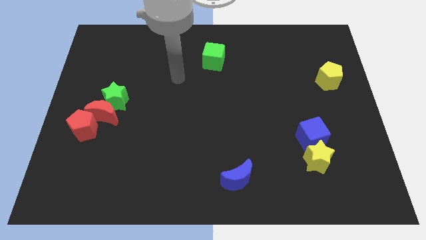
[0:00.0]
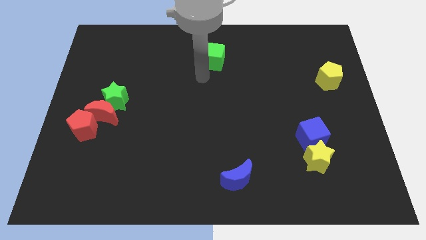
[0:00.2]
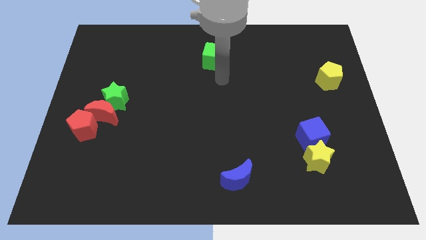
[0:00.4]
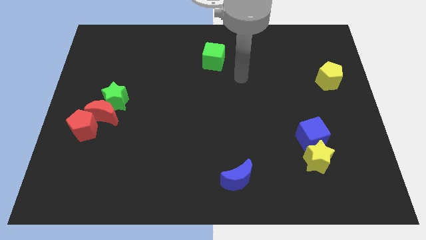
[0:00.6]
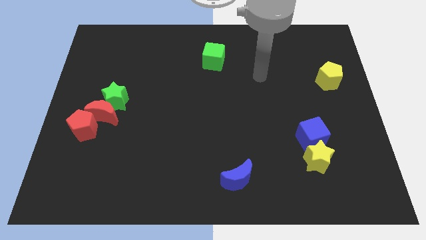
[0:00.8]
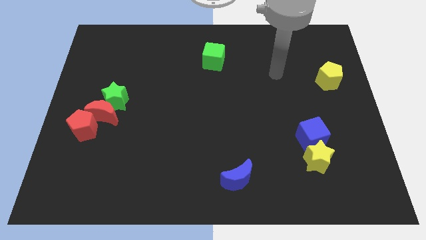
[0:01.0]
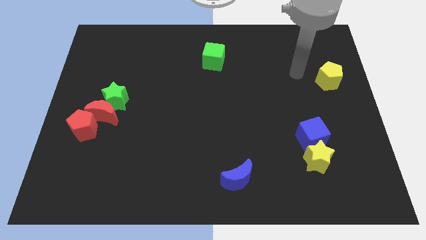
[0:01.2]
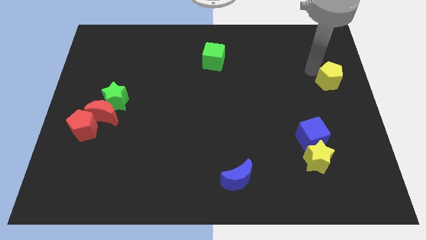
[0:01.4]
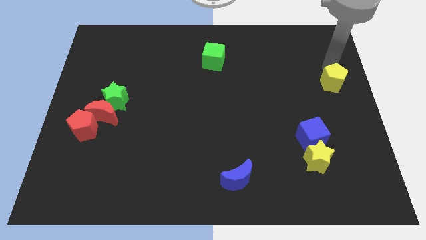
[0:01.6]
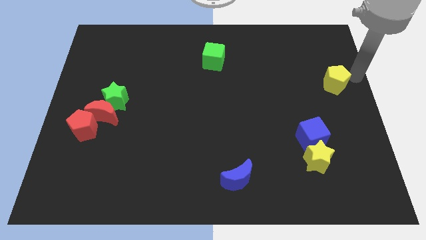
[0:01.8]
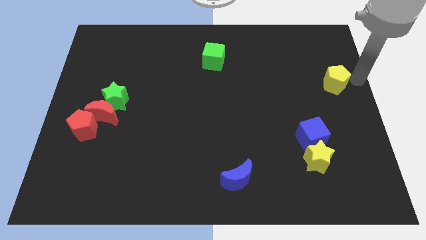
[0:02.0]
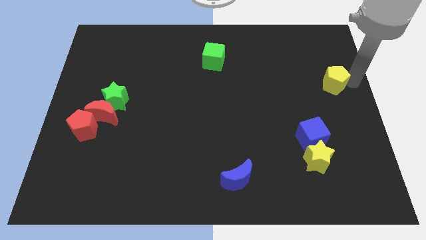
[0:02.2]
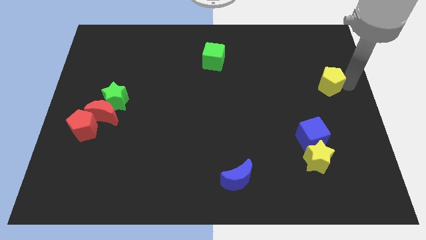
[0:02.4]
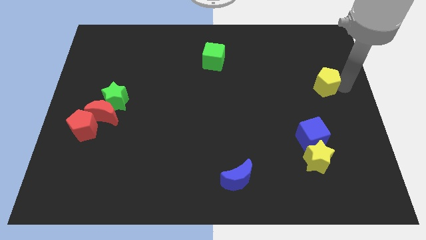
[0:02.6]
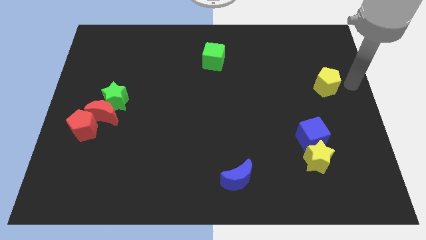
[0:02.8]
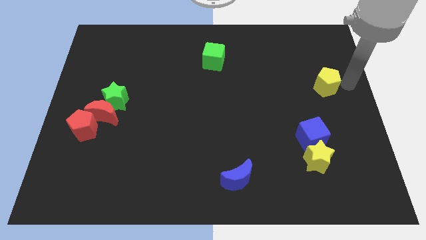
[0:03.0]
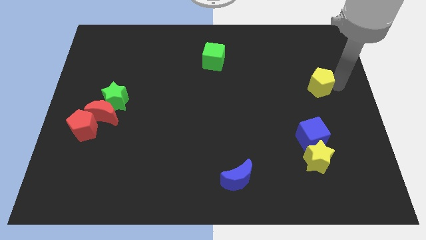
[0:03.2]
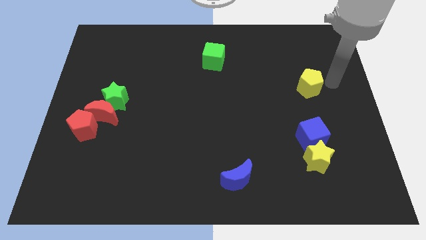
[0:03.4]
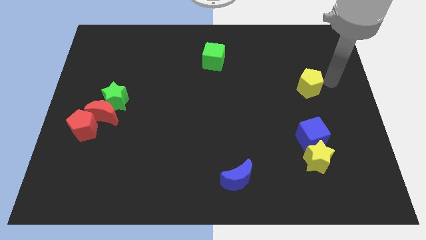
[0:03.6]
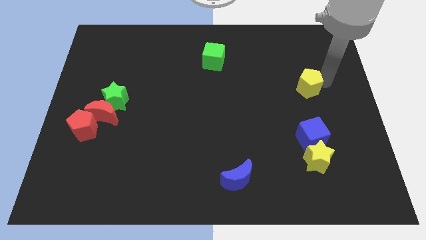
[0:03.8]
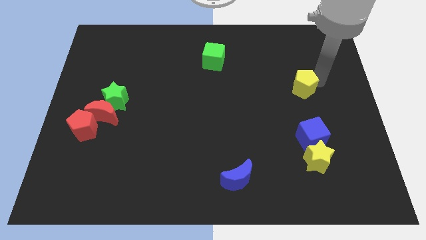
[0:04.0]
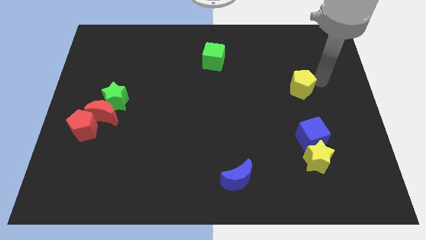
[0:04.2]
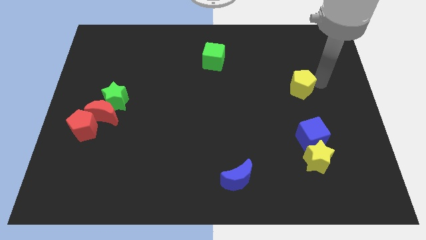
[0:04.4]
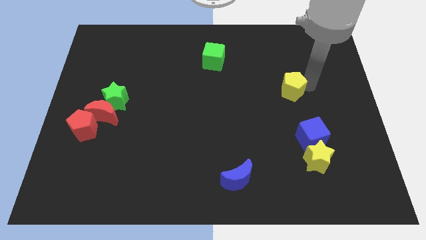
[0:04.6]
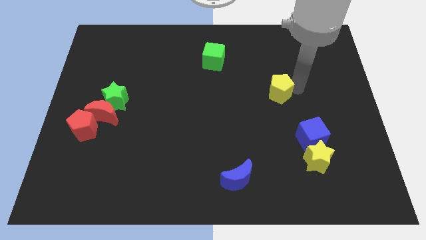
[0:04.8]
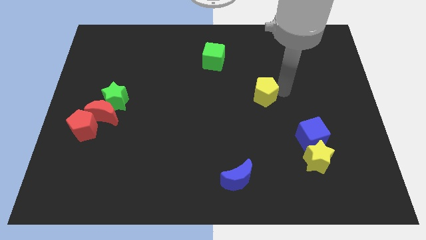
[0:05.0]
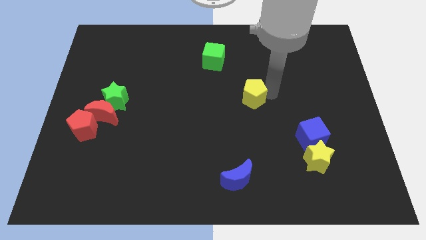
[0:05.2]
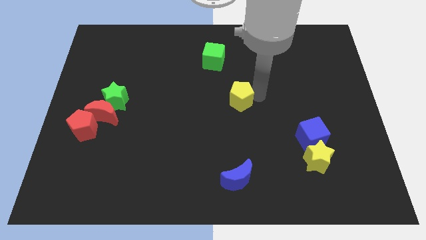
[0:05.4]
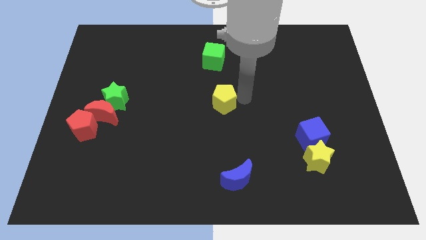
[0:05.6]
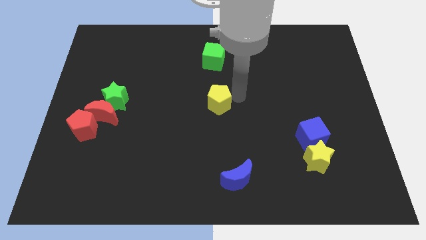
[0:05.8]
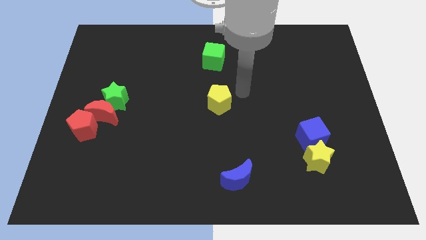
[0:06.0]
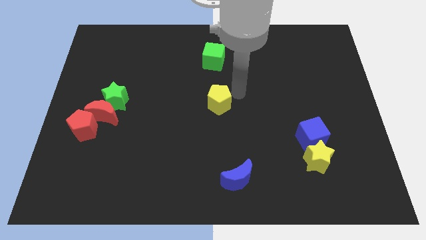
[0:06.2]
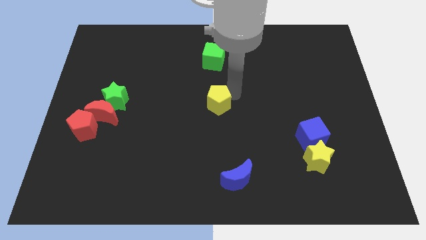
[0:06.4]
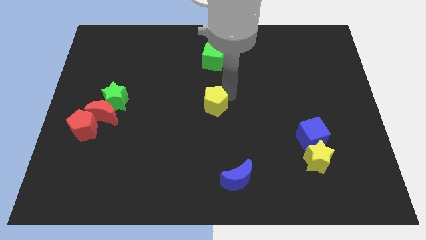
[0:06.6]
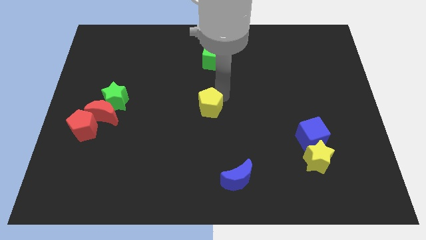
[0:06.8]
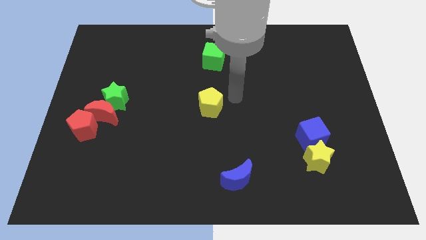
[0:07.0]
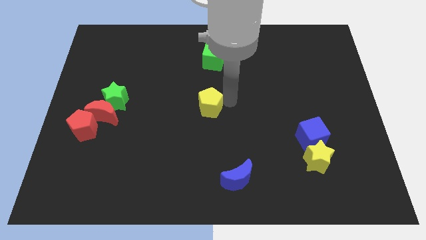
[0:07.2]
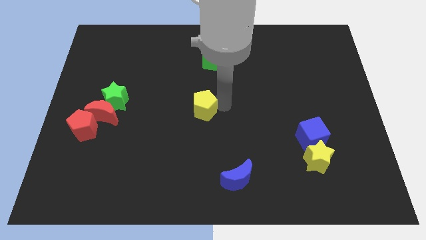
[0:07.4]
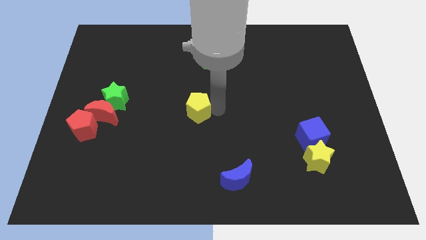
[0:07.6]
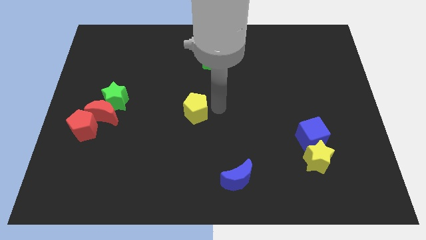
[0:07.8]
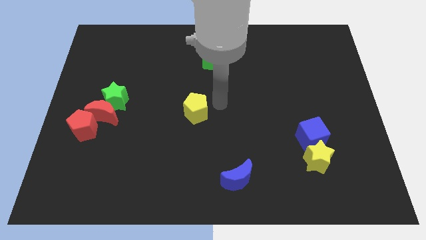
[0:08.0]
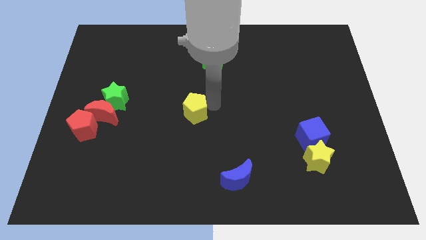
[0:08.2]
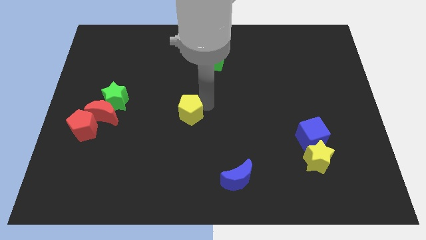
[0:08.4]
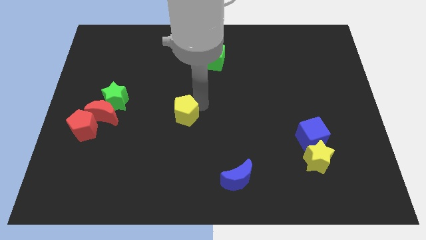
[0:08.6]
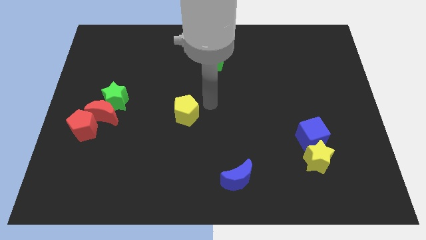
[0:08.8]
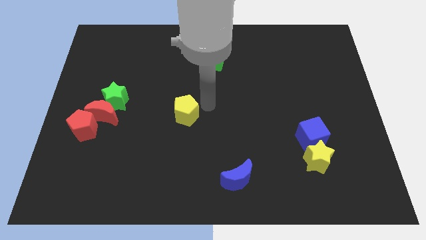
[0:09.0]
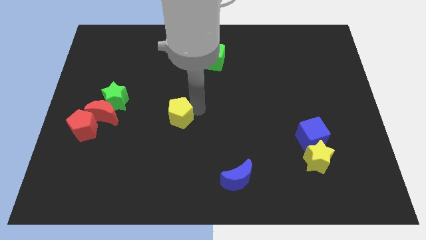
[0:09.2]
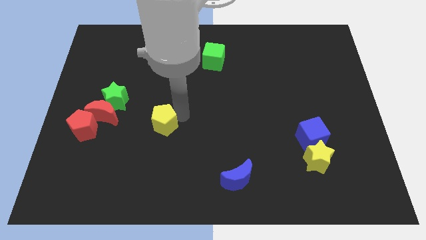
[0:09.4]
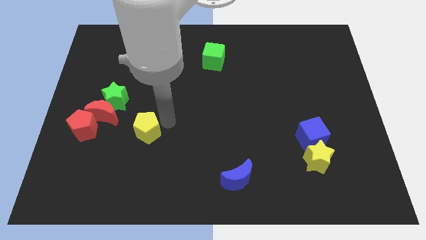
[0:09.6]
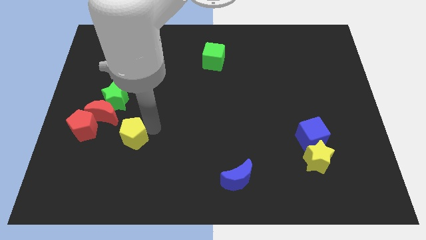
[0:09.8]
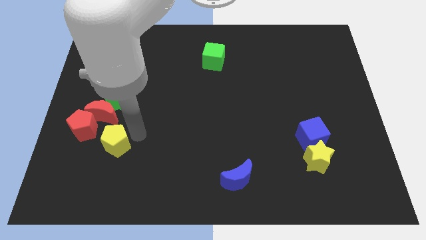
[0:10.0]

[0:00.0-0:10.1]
slide the yellow pentagon to the bottom side of the red moon

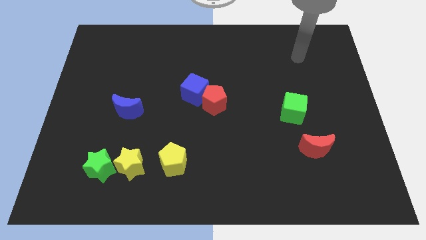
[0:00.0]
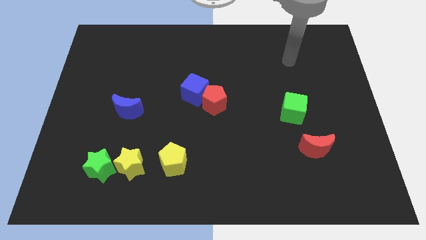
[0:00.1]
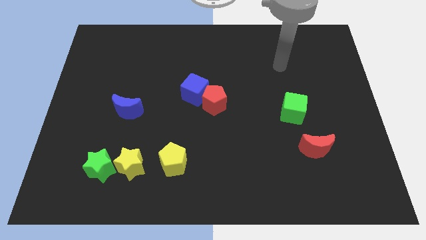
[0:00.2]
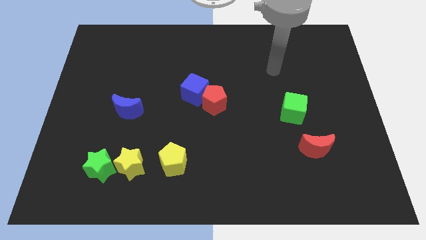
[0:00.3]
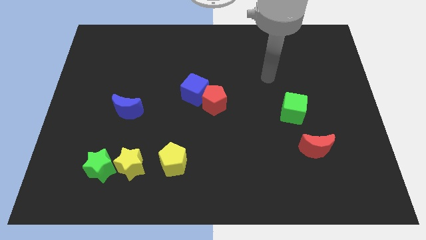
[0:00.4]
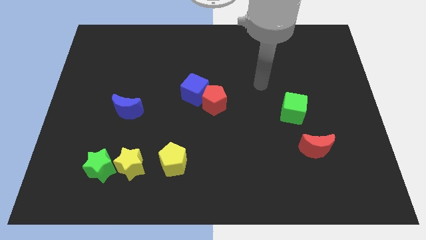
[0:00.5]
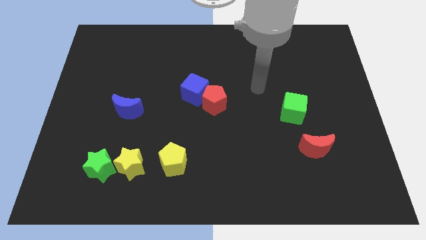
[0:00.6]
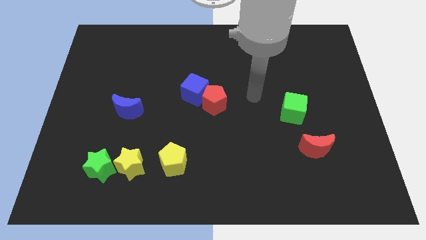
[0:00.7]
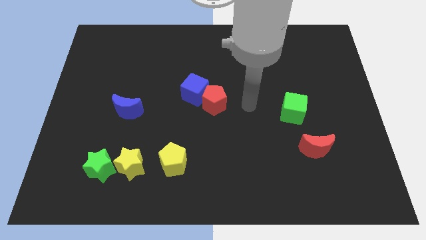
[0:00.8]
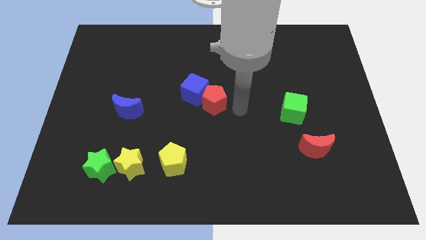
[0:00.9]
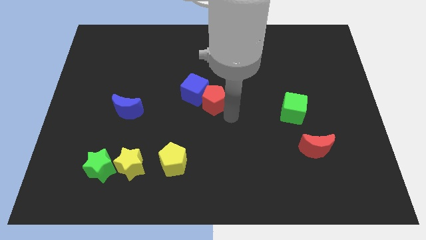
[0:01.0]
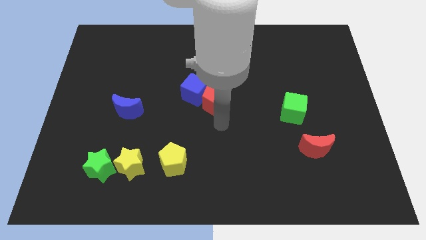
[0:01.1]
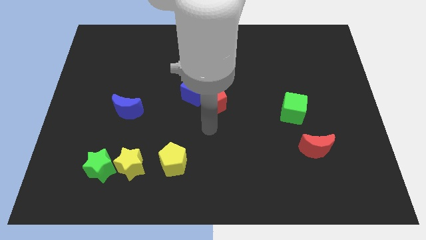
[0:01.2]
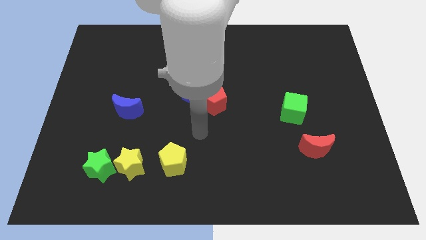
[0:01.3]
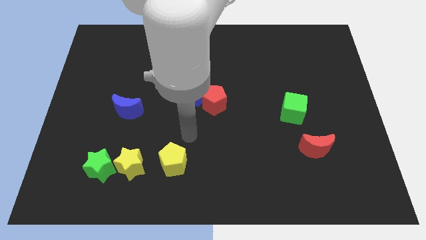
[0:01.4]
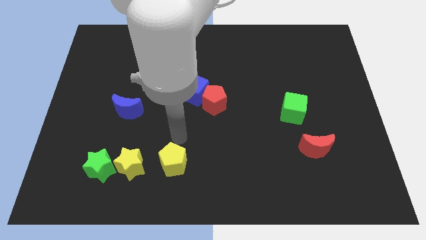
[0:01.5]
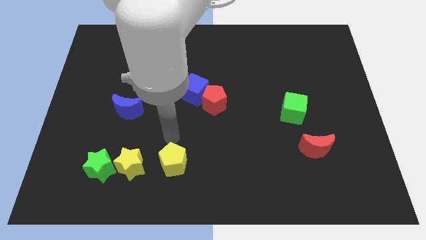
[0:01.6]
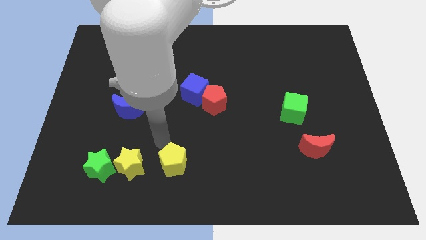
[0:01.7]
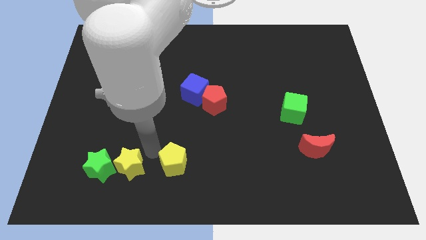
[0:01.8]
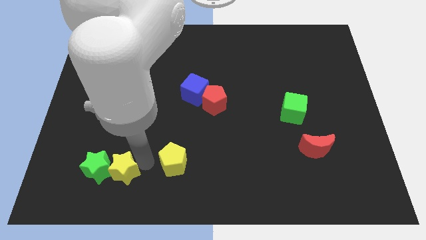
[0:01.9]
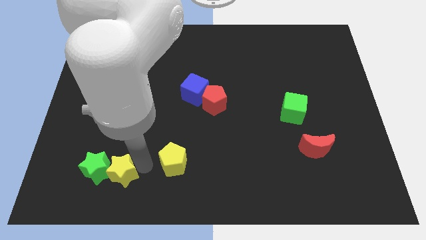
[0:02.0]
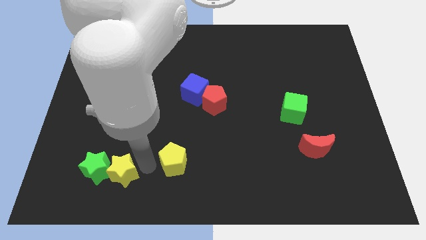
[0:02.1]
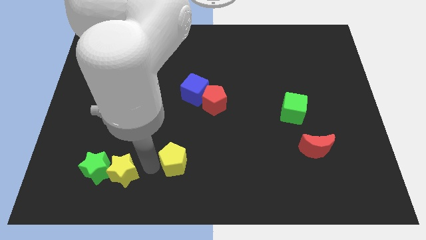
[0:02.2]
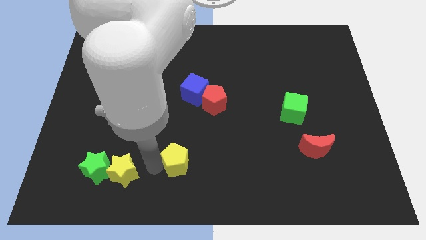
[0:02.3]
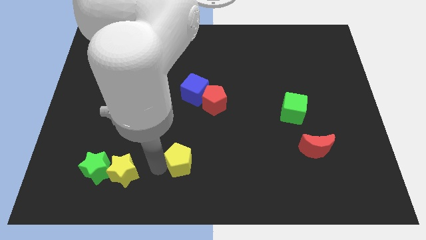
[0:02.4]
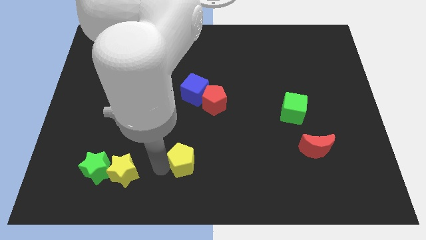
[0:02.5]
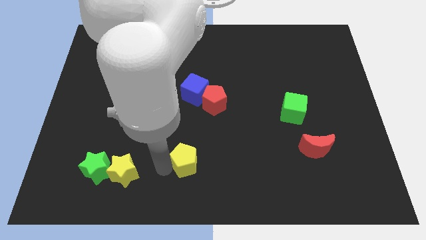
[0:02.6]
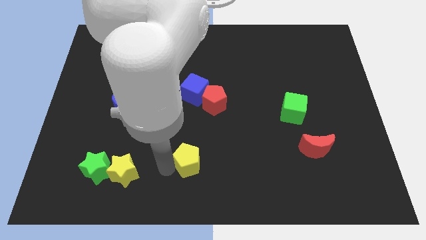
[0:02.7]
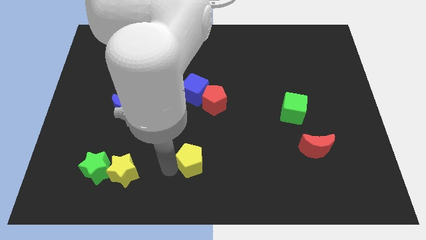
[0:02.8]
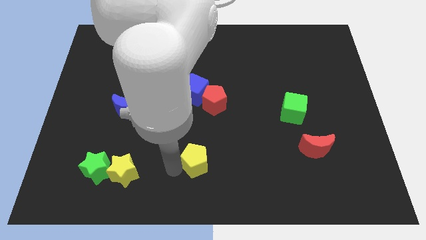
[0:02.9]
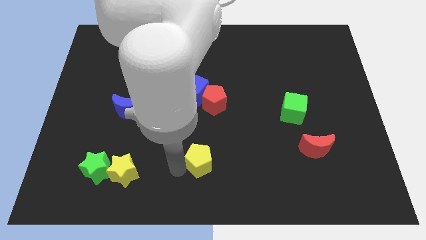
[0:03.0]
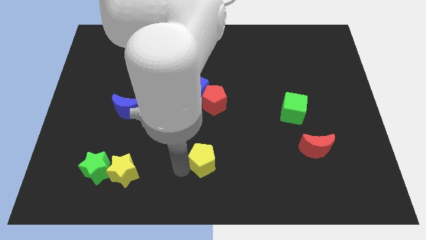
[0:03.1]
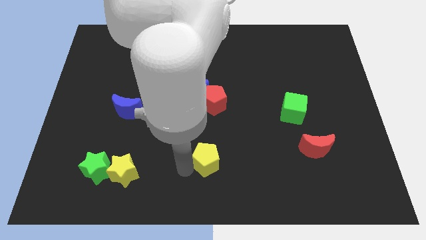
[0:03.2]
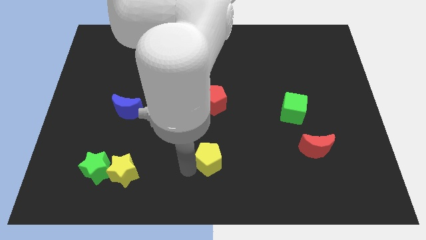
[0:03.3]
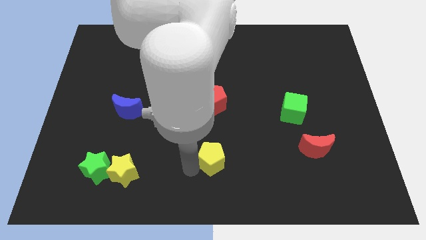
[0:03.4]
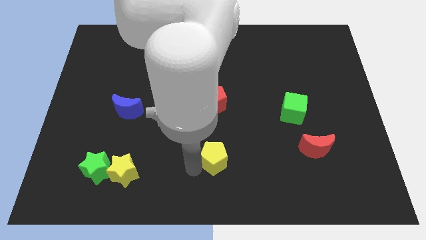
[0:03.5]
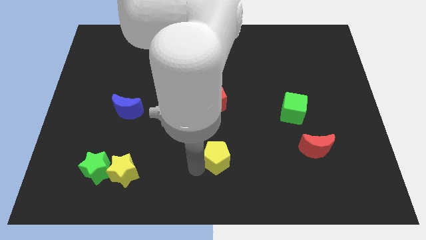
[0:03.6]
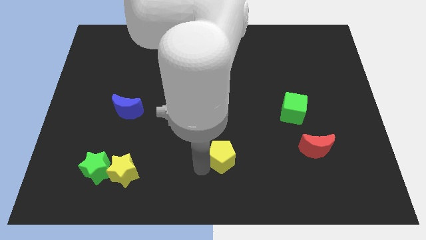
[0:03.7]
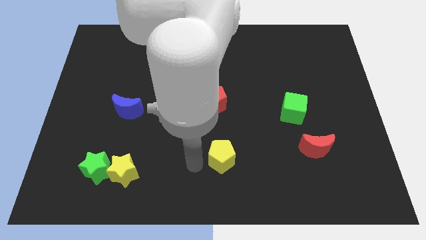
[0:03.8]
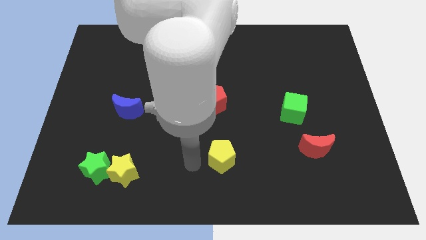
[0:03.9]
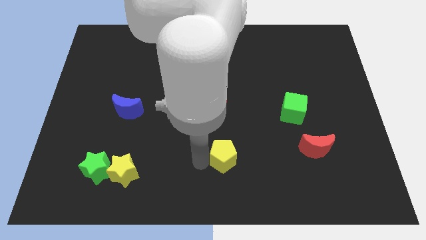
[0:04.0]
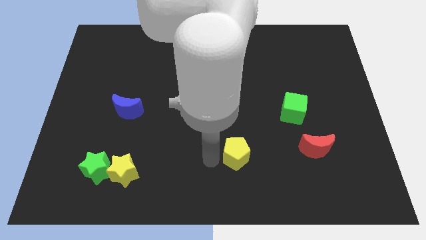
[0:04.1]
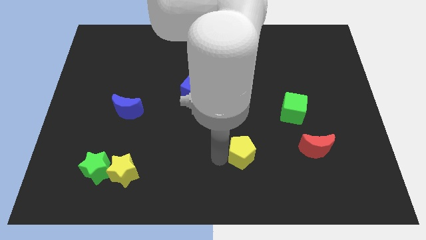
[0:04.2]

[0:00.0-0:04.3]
move the yellow pentagon to the left of the red moon
